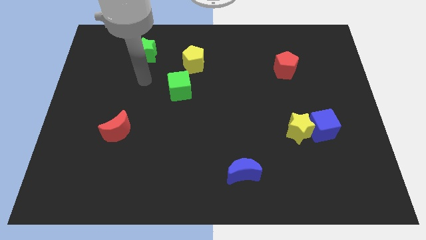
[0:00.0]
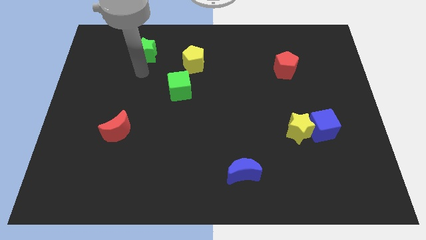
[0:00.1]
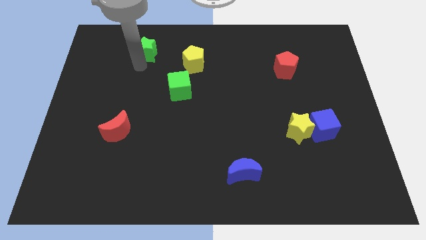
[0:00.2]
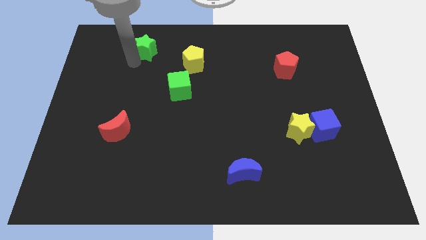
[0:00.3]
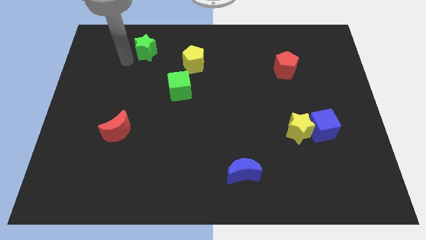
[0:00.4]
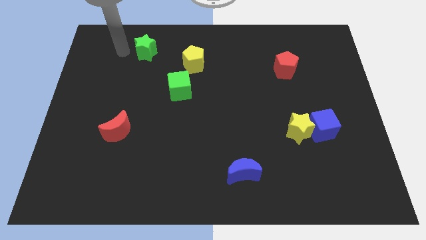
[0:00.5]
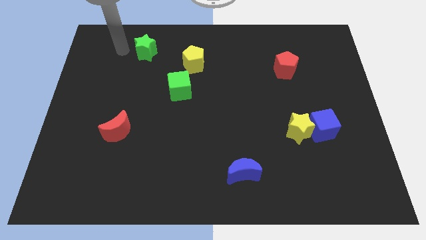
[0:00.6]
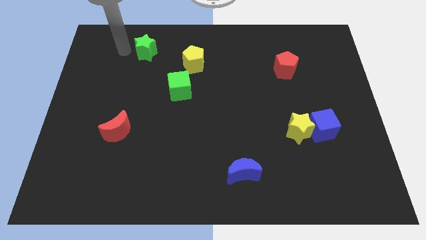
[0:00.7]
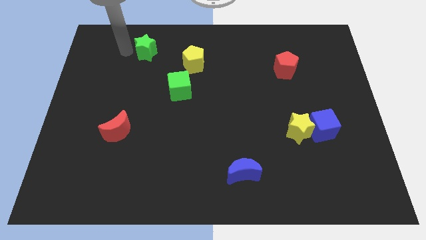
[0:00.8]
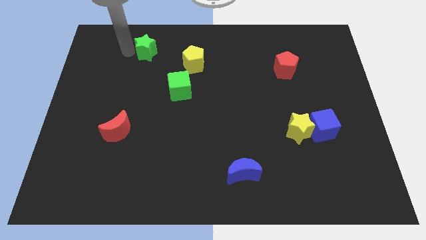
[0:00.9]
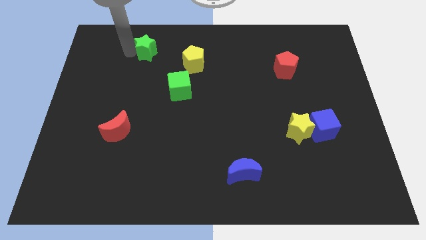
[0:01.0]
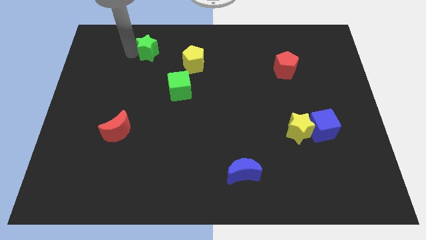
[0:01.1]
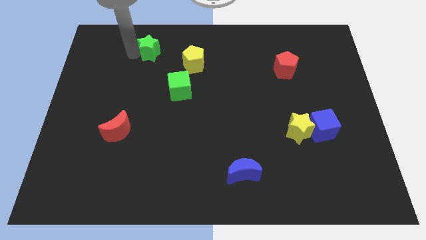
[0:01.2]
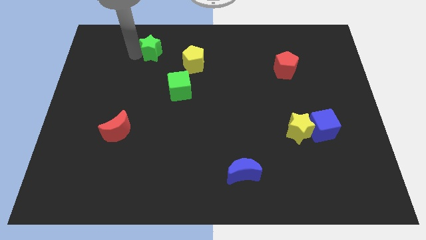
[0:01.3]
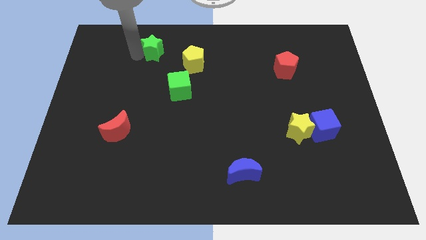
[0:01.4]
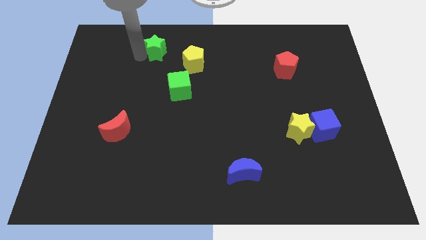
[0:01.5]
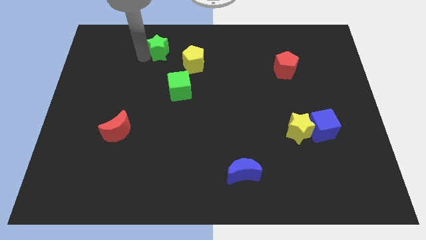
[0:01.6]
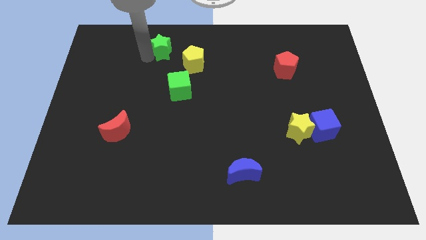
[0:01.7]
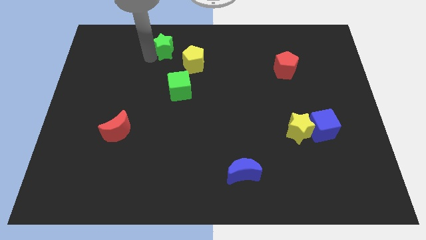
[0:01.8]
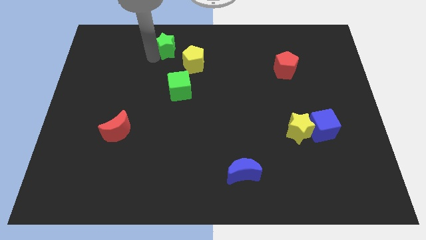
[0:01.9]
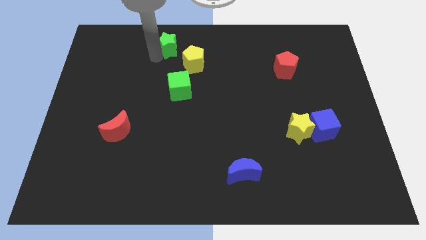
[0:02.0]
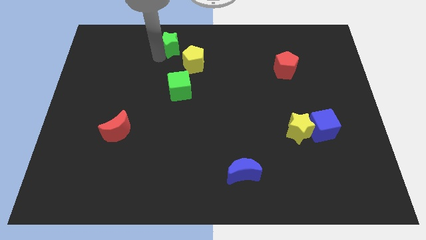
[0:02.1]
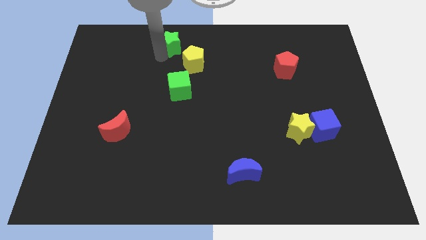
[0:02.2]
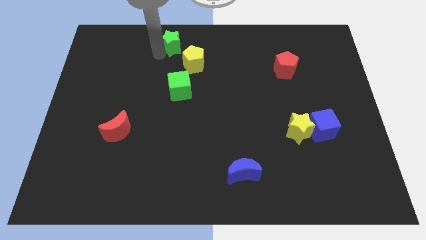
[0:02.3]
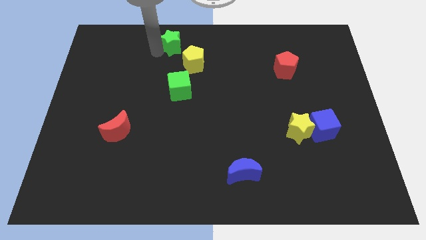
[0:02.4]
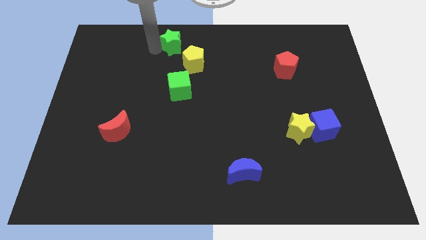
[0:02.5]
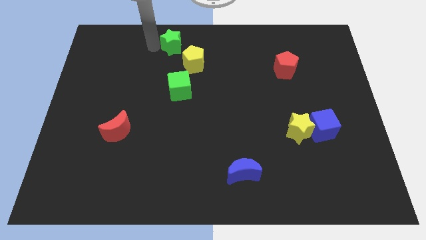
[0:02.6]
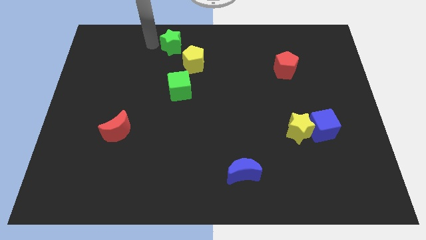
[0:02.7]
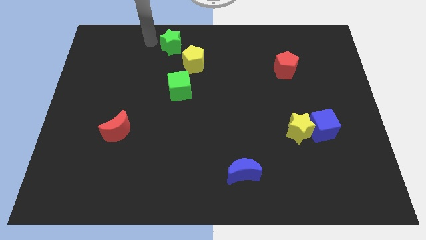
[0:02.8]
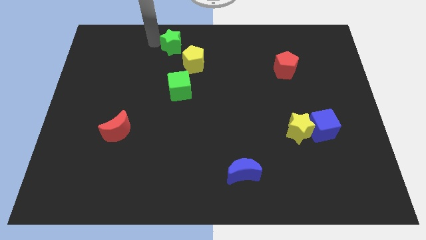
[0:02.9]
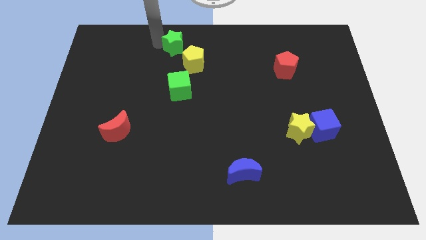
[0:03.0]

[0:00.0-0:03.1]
slide the green star right a bit

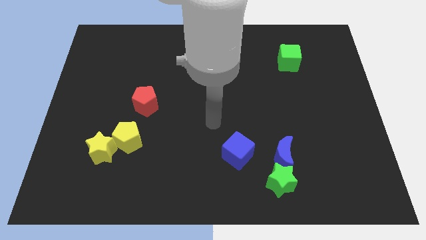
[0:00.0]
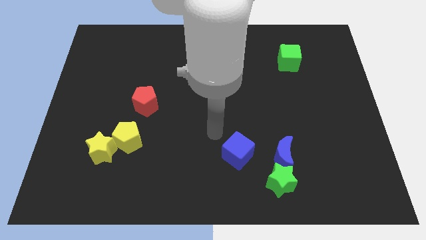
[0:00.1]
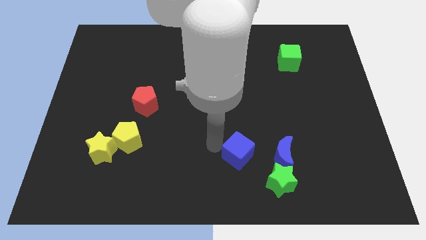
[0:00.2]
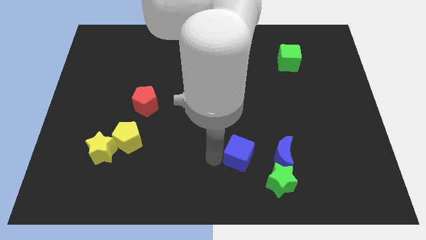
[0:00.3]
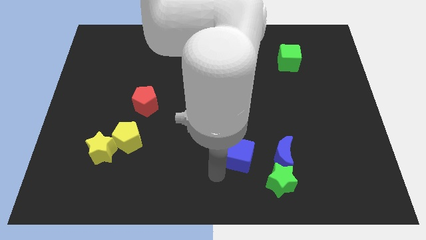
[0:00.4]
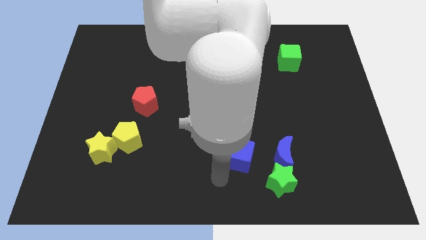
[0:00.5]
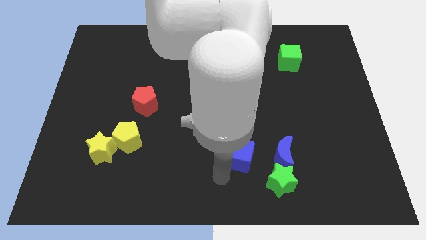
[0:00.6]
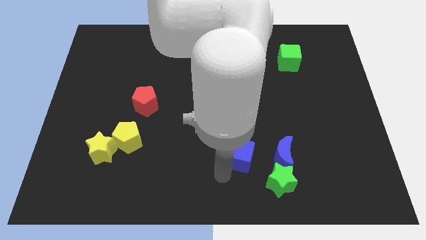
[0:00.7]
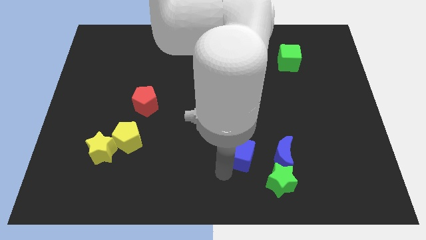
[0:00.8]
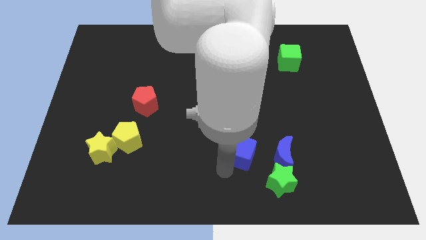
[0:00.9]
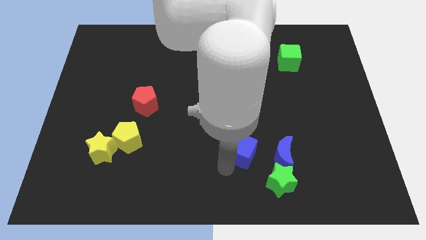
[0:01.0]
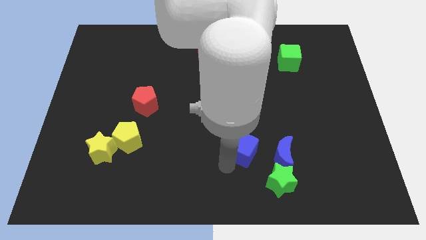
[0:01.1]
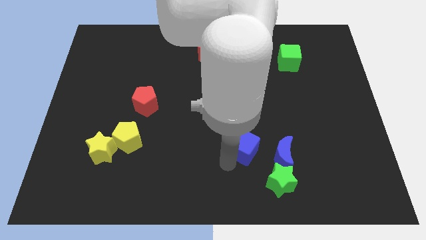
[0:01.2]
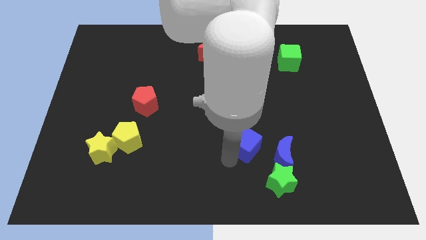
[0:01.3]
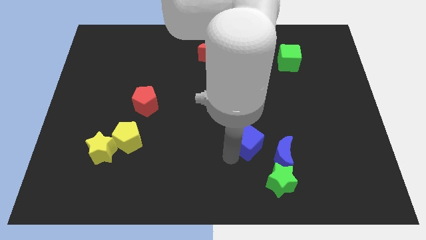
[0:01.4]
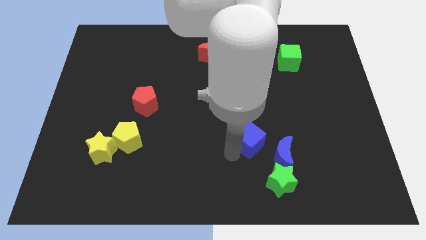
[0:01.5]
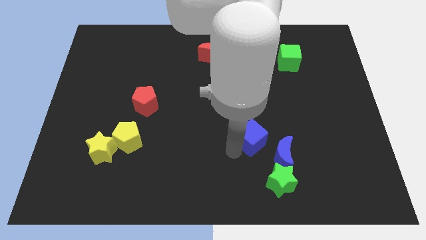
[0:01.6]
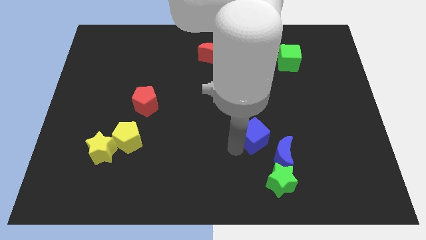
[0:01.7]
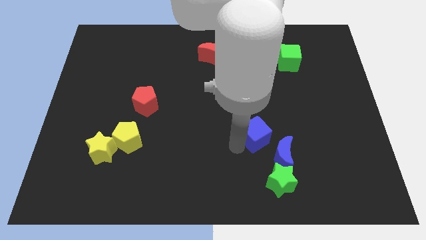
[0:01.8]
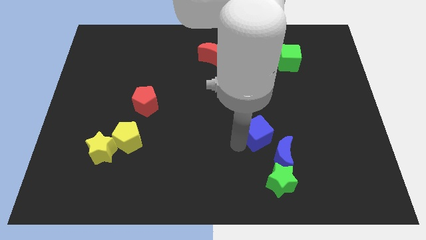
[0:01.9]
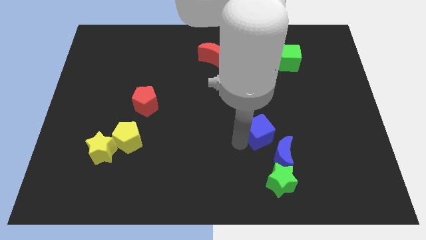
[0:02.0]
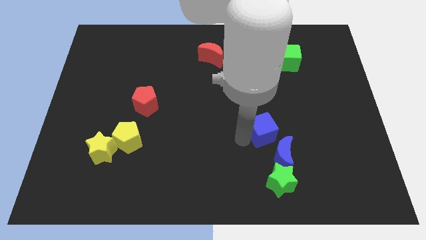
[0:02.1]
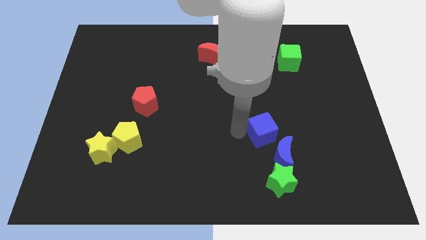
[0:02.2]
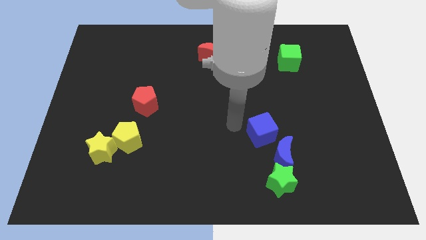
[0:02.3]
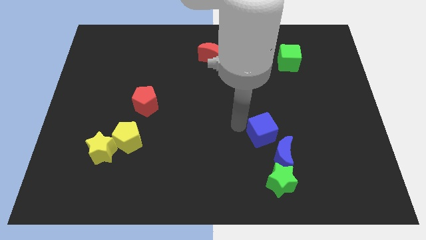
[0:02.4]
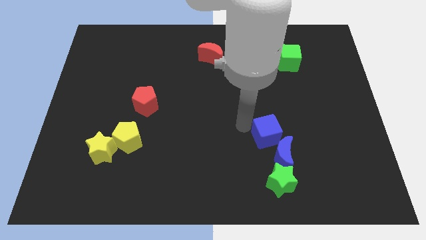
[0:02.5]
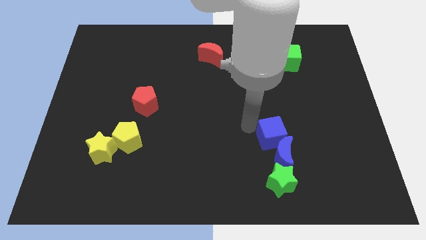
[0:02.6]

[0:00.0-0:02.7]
slightly move the blue cube right

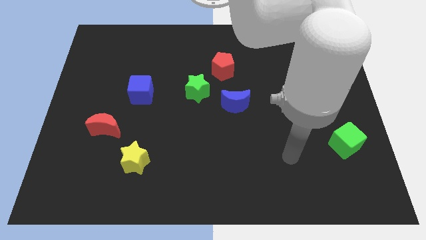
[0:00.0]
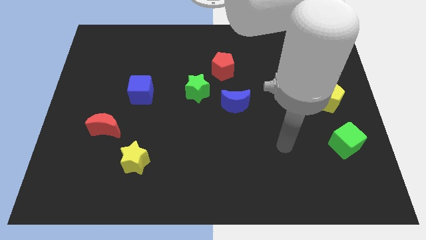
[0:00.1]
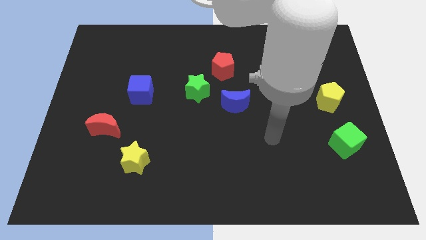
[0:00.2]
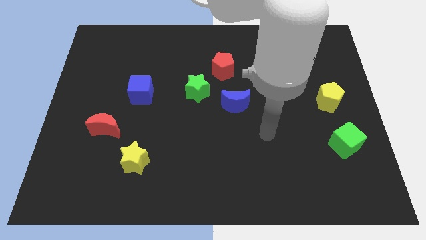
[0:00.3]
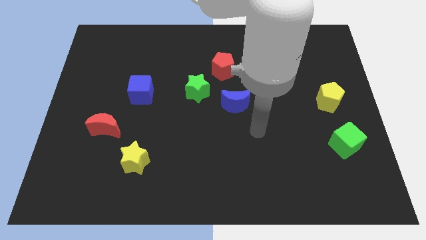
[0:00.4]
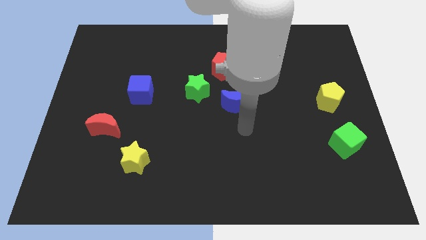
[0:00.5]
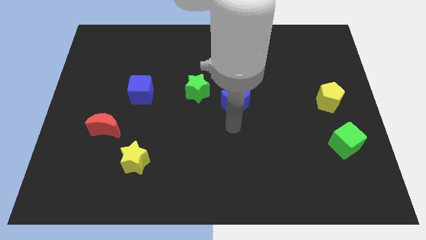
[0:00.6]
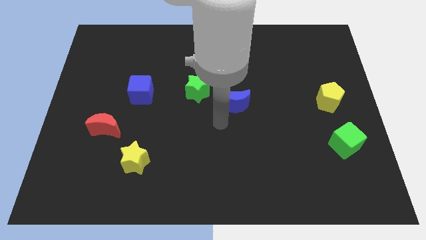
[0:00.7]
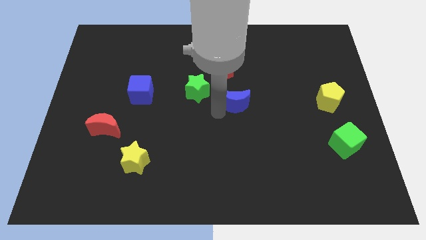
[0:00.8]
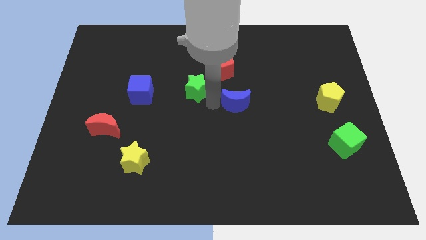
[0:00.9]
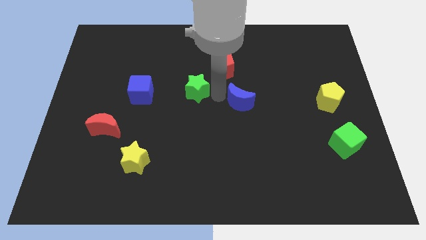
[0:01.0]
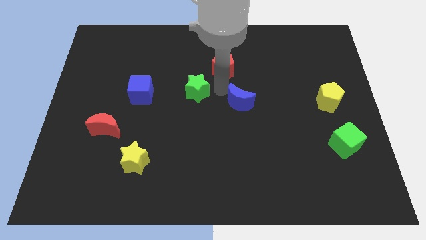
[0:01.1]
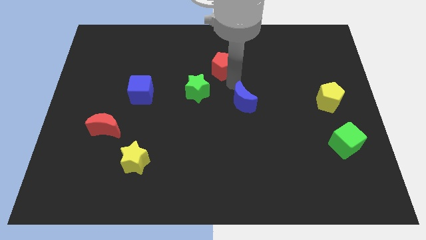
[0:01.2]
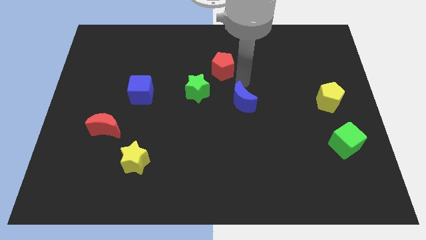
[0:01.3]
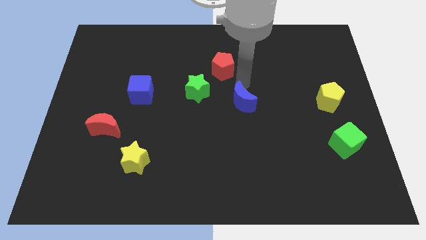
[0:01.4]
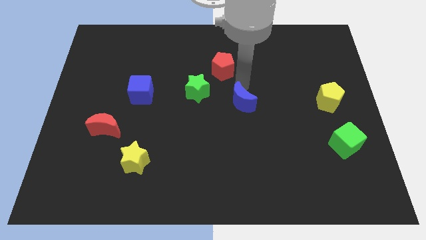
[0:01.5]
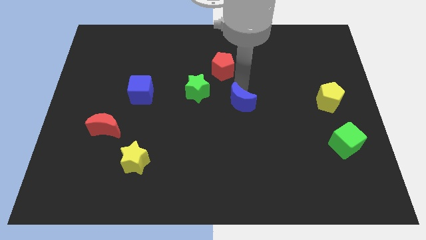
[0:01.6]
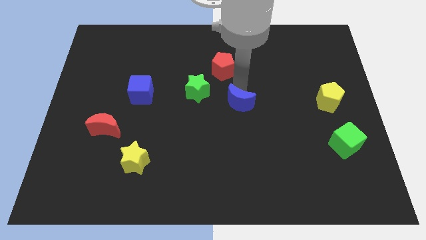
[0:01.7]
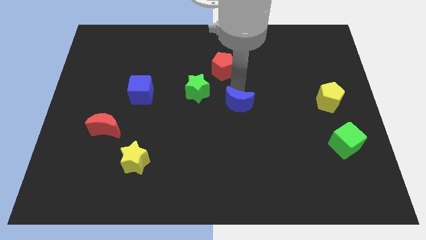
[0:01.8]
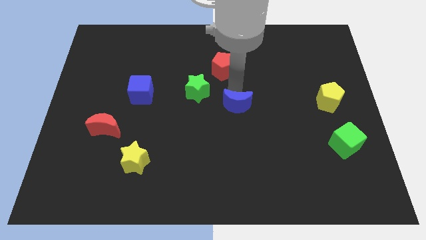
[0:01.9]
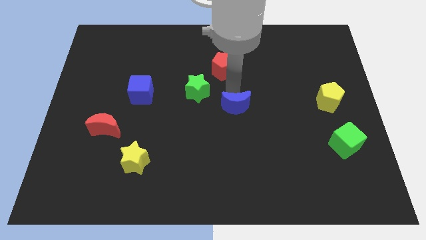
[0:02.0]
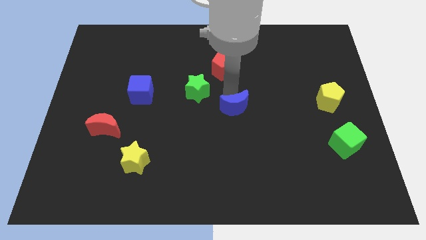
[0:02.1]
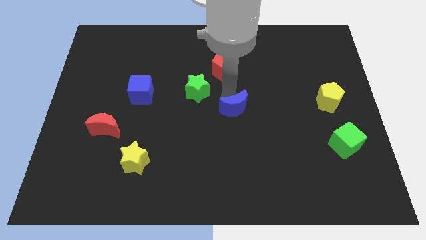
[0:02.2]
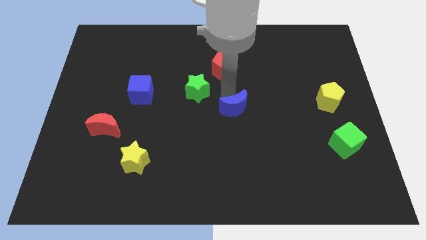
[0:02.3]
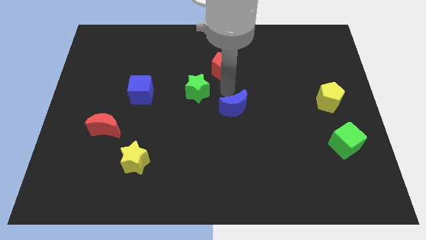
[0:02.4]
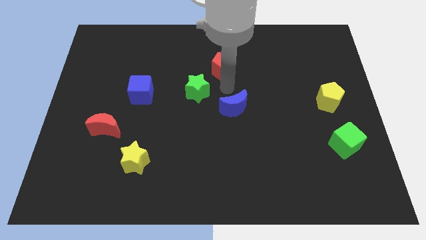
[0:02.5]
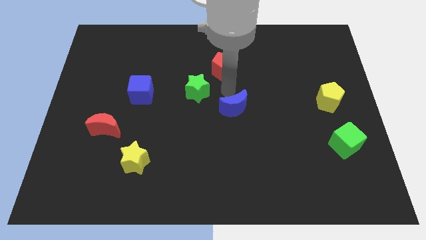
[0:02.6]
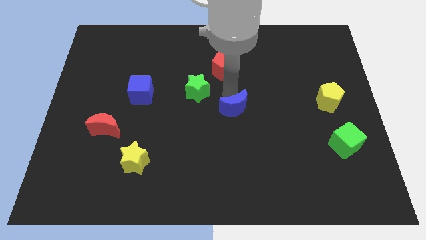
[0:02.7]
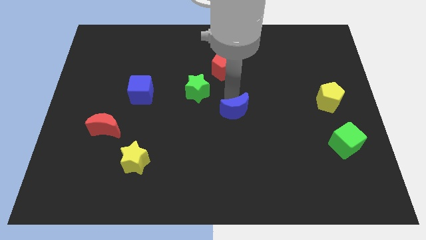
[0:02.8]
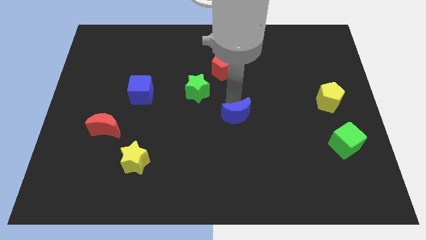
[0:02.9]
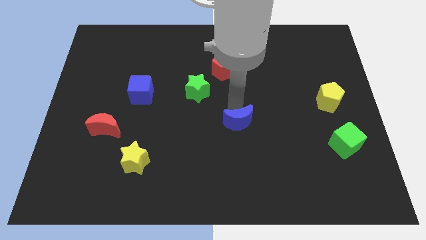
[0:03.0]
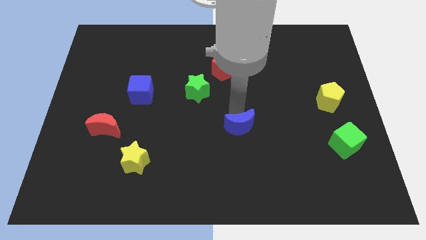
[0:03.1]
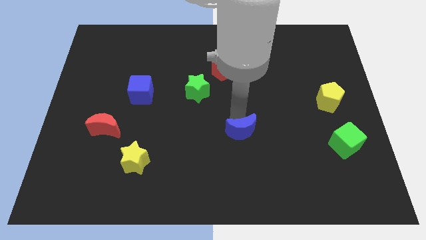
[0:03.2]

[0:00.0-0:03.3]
slightly push the blue moon down
